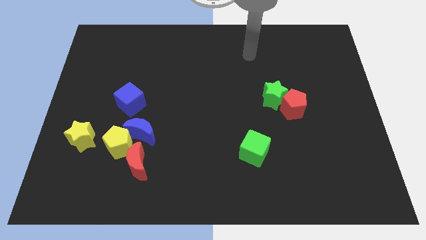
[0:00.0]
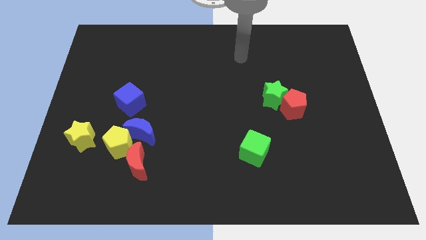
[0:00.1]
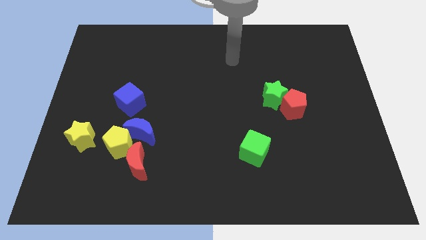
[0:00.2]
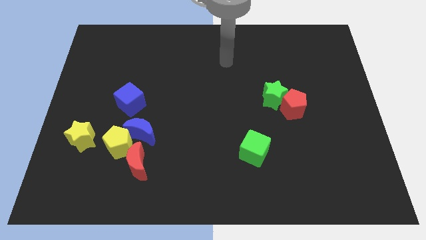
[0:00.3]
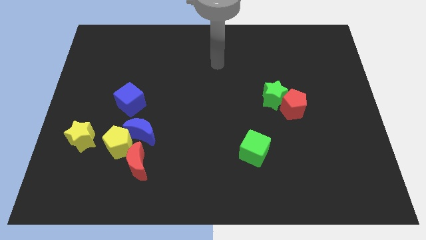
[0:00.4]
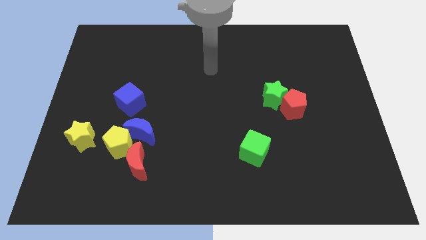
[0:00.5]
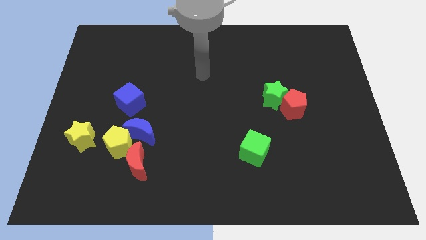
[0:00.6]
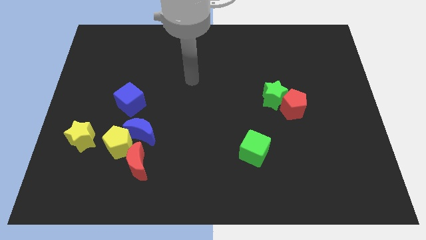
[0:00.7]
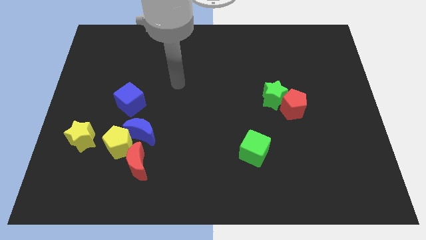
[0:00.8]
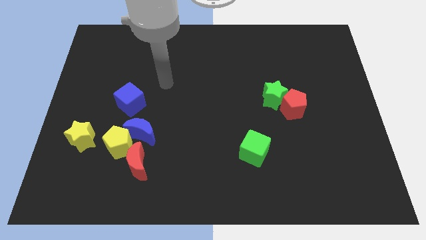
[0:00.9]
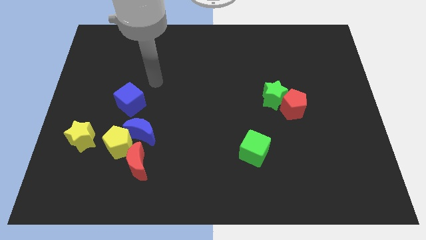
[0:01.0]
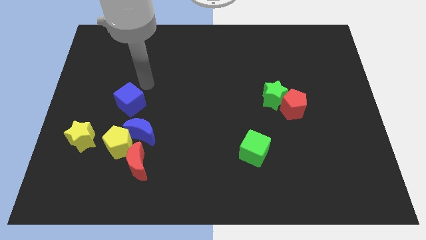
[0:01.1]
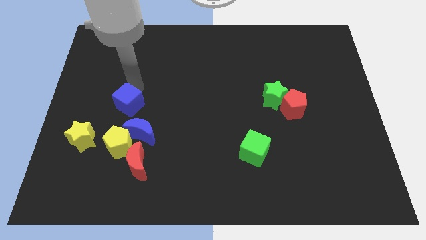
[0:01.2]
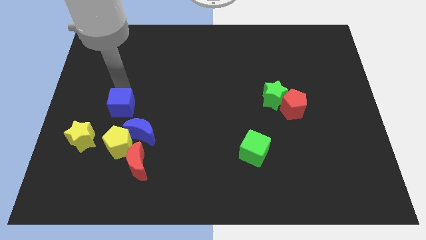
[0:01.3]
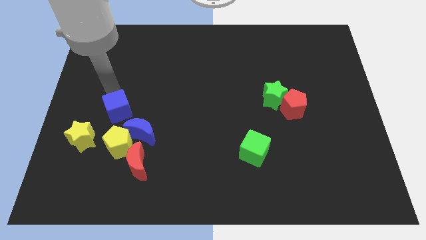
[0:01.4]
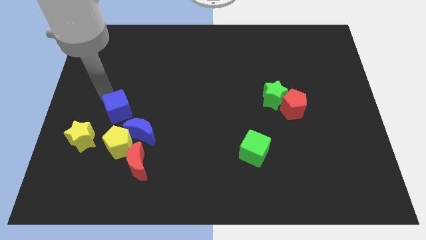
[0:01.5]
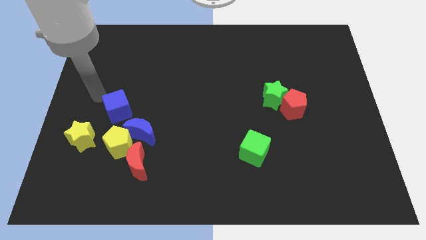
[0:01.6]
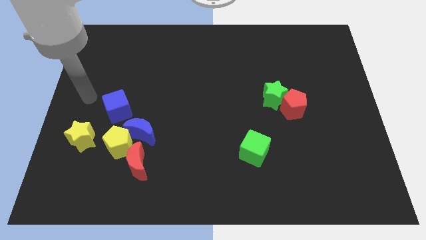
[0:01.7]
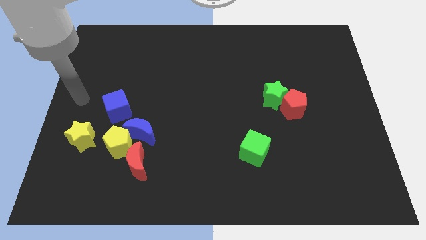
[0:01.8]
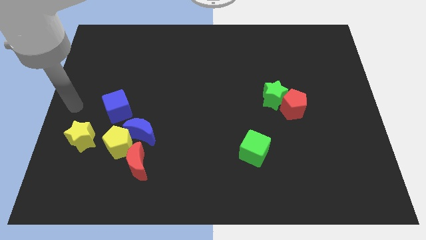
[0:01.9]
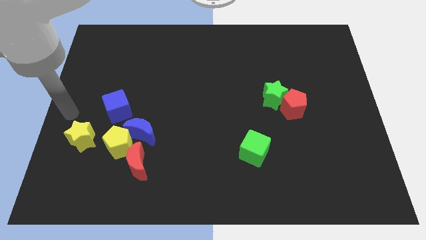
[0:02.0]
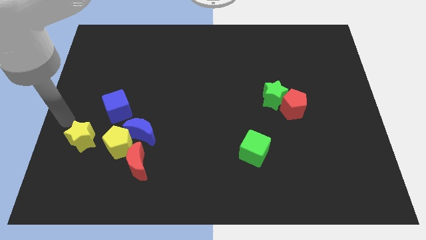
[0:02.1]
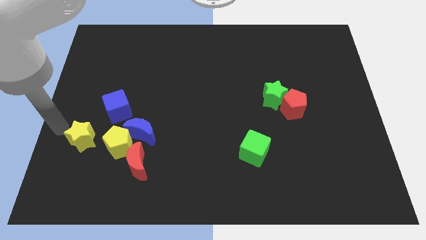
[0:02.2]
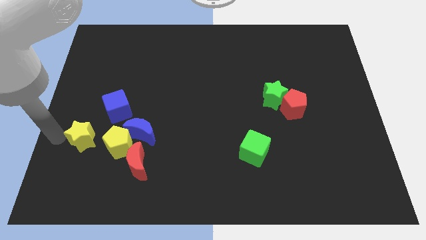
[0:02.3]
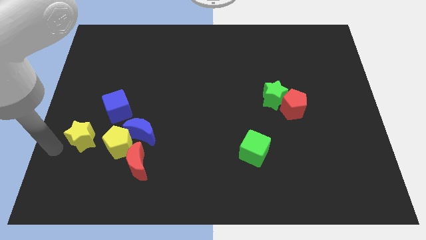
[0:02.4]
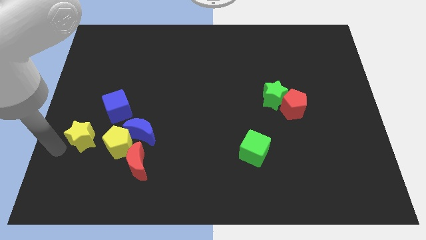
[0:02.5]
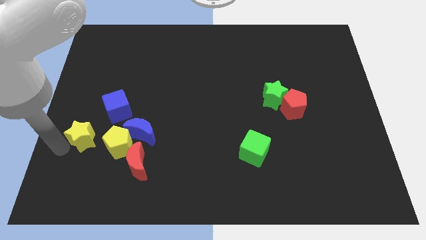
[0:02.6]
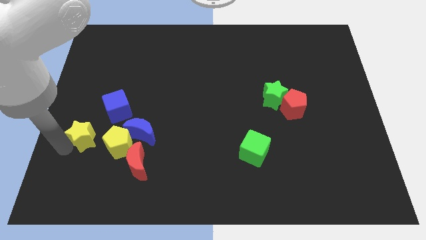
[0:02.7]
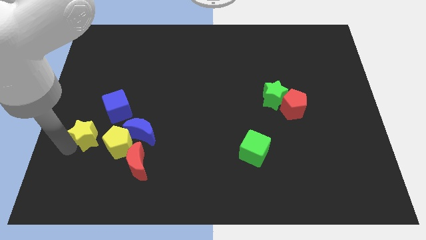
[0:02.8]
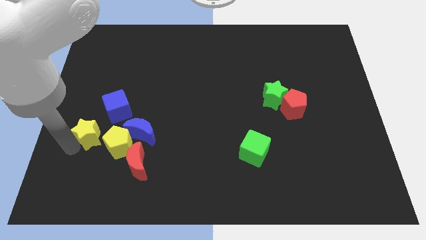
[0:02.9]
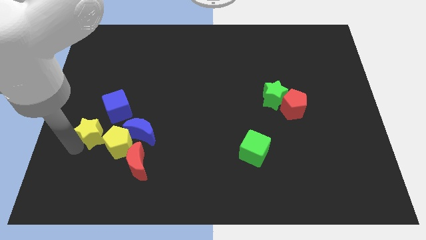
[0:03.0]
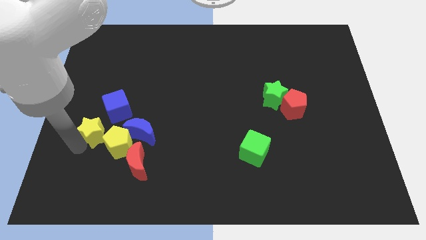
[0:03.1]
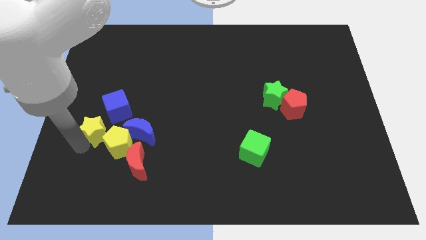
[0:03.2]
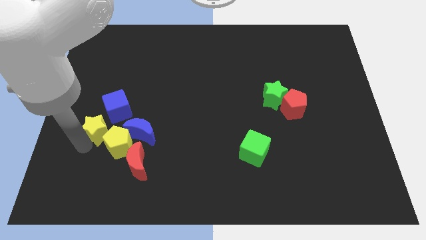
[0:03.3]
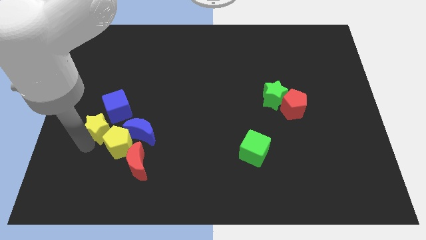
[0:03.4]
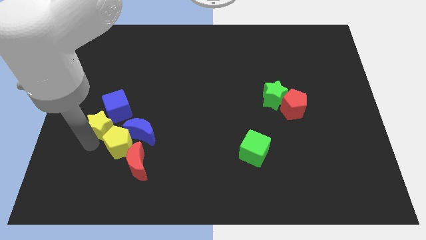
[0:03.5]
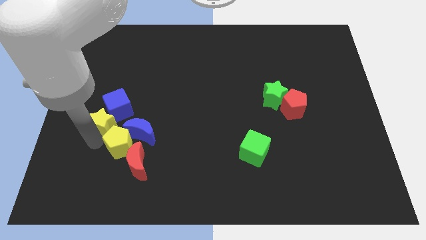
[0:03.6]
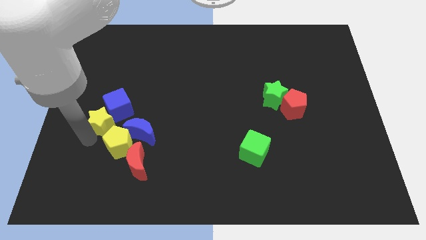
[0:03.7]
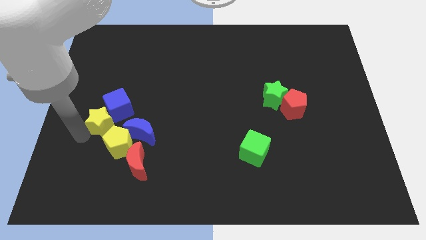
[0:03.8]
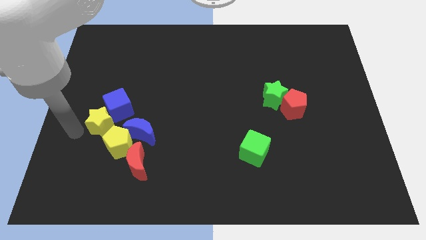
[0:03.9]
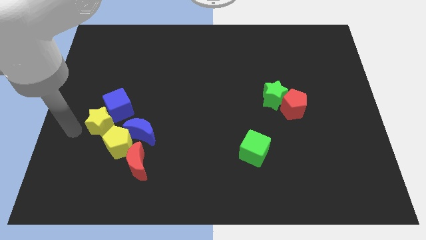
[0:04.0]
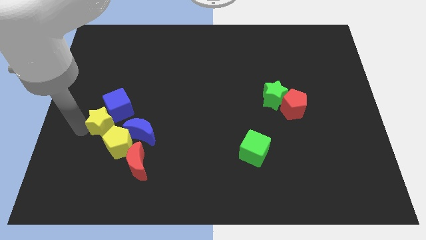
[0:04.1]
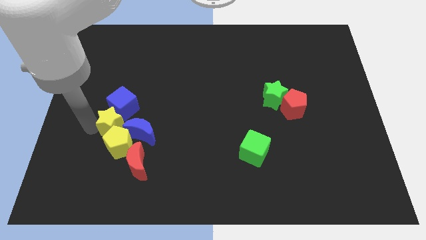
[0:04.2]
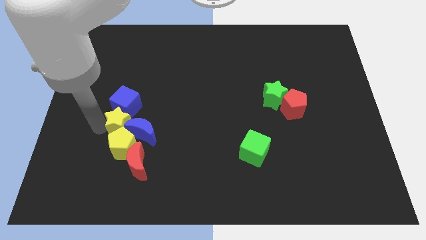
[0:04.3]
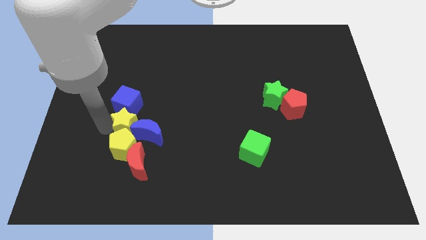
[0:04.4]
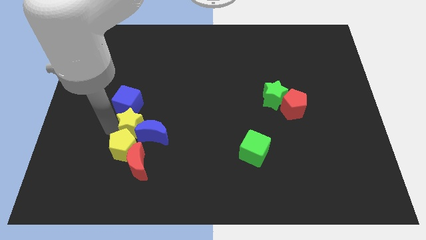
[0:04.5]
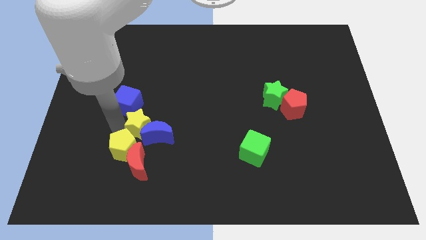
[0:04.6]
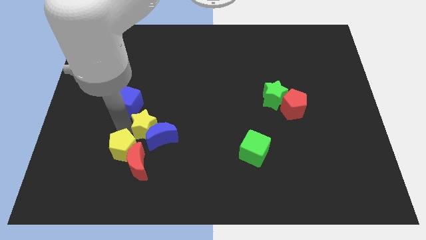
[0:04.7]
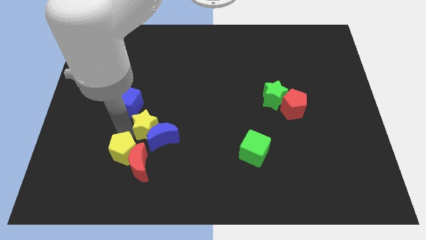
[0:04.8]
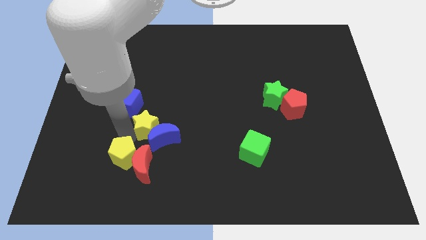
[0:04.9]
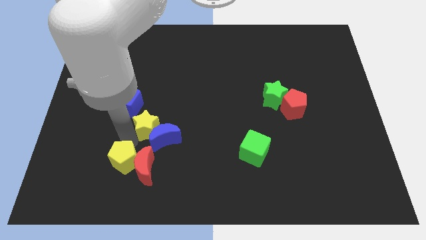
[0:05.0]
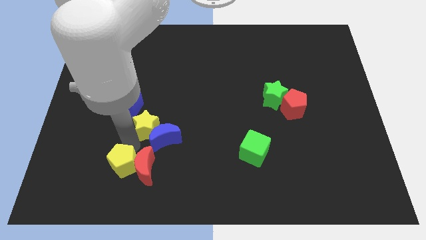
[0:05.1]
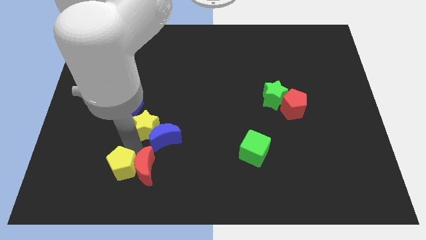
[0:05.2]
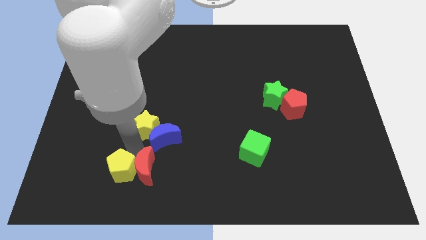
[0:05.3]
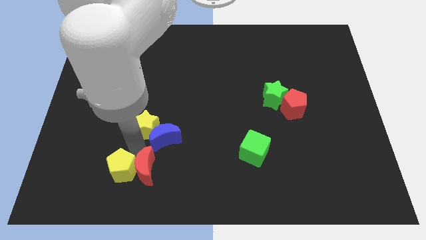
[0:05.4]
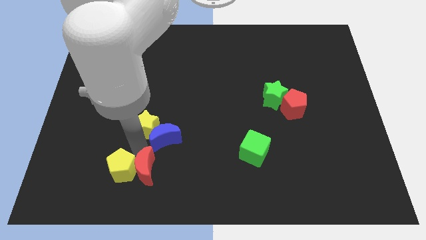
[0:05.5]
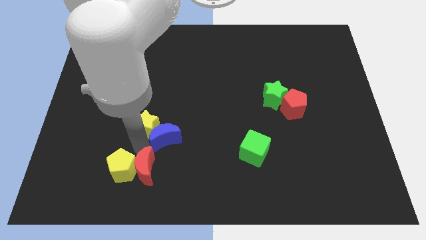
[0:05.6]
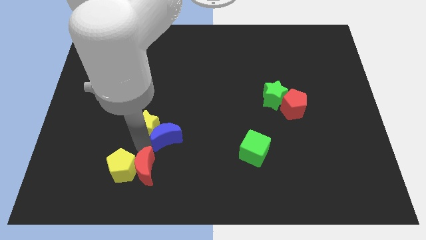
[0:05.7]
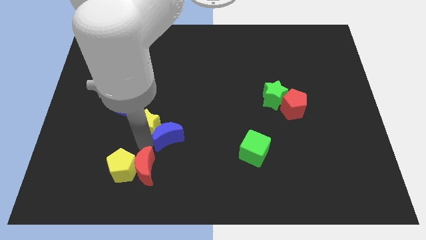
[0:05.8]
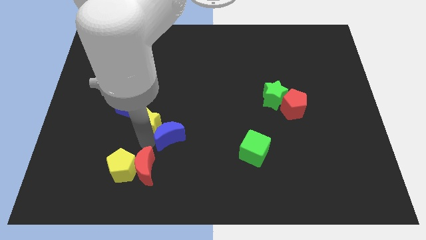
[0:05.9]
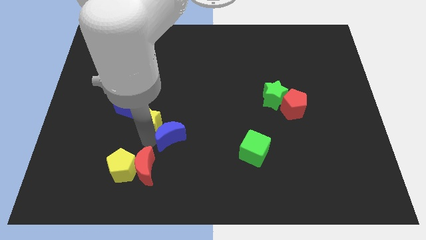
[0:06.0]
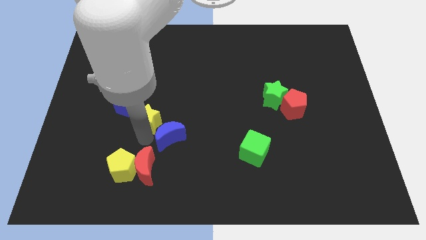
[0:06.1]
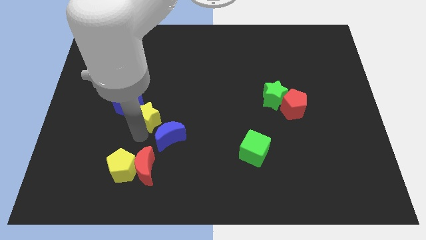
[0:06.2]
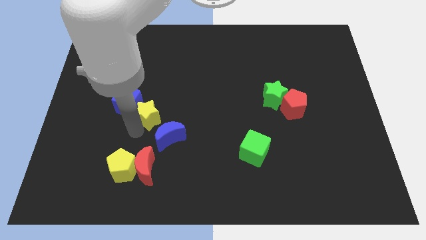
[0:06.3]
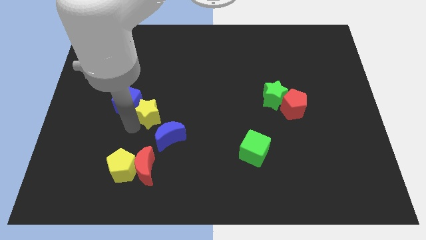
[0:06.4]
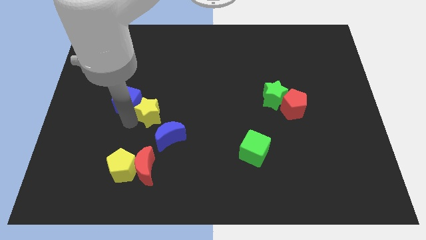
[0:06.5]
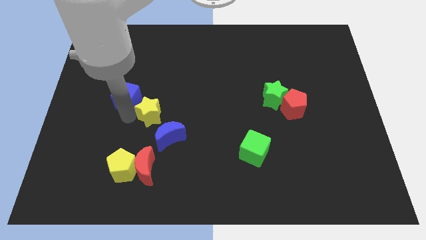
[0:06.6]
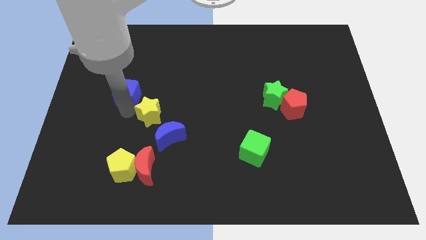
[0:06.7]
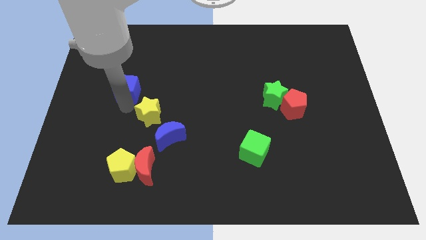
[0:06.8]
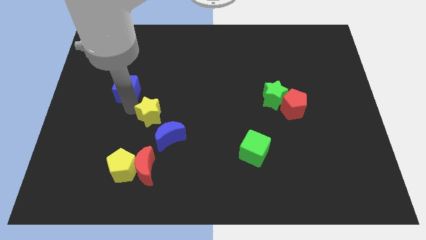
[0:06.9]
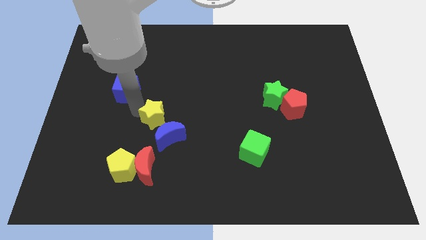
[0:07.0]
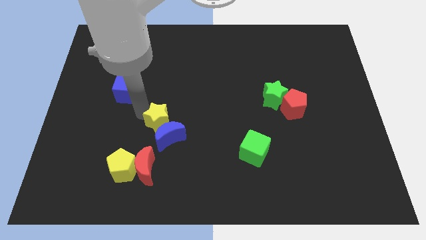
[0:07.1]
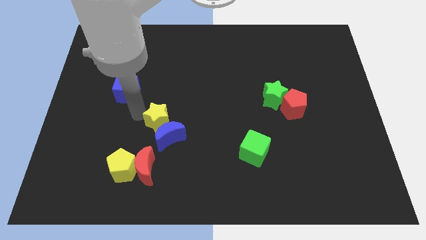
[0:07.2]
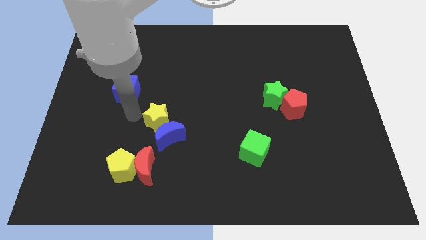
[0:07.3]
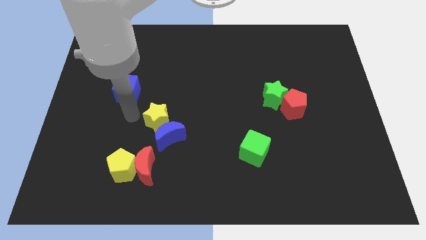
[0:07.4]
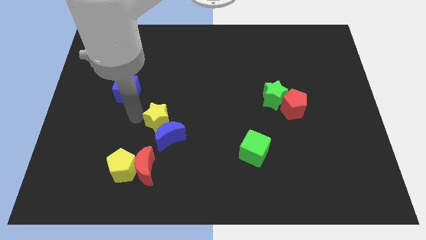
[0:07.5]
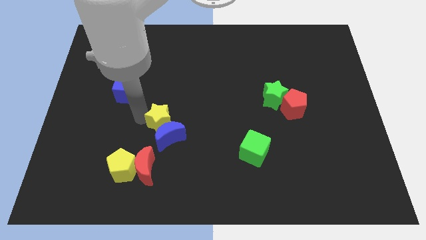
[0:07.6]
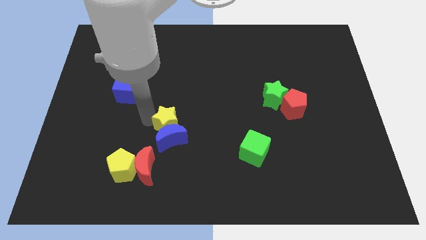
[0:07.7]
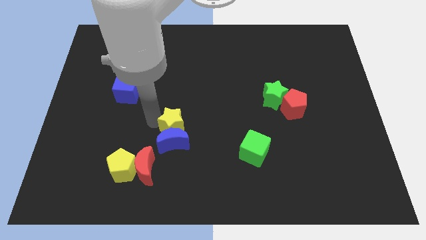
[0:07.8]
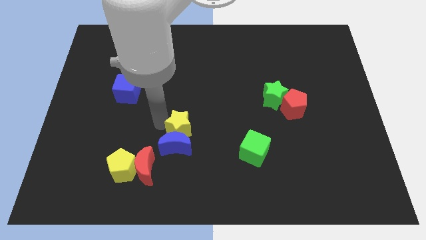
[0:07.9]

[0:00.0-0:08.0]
slide the yellow star right
